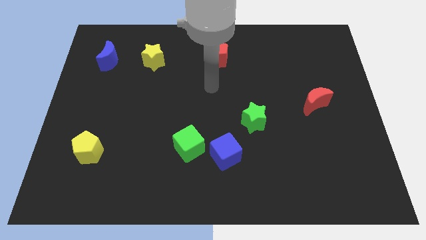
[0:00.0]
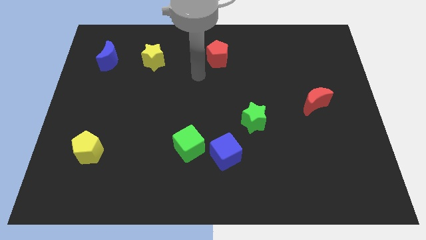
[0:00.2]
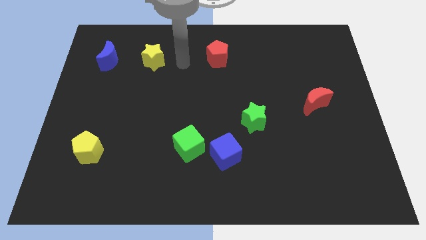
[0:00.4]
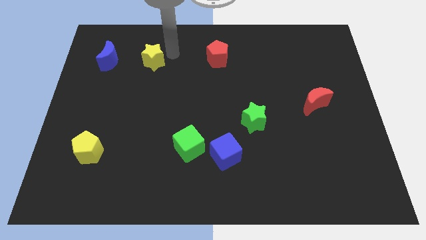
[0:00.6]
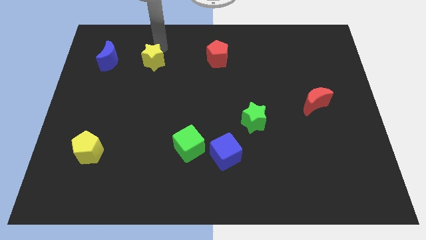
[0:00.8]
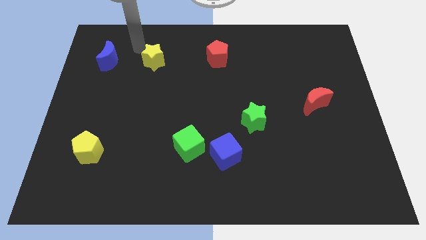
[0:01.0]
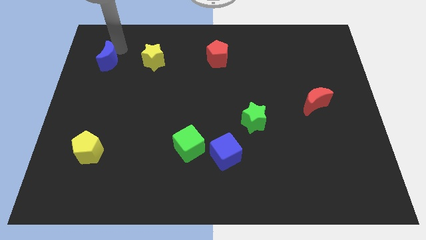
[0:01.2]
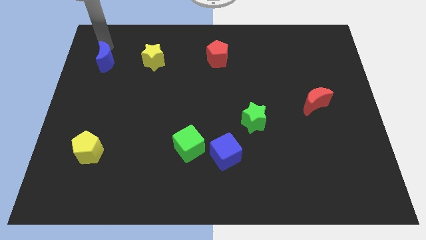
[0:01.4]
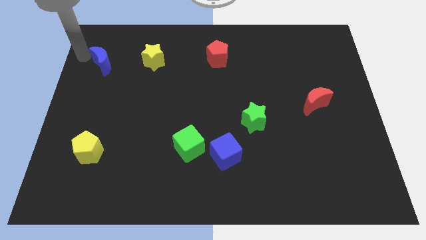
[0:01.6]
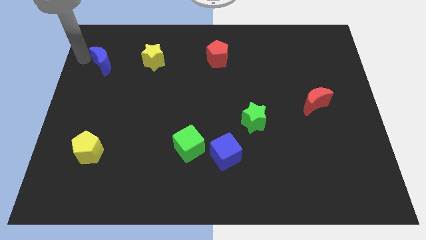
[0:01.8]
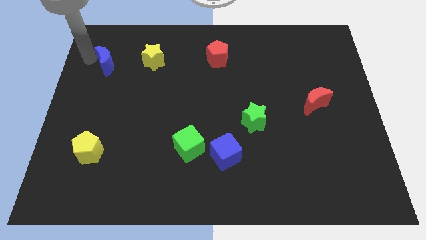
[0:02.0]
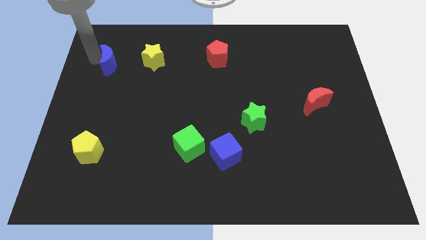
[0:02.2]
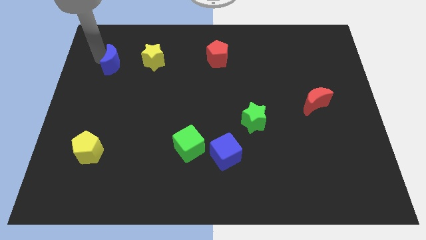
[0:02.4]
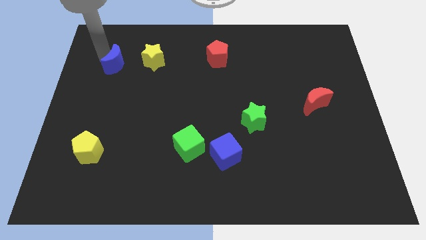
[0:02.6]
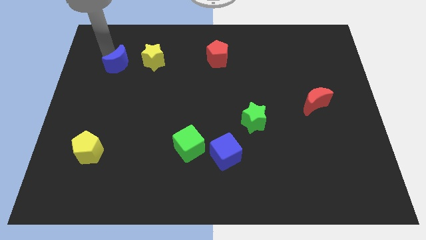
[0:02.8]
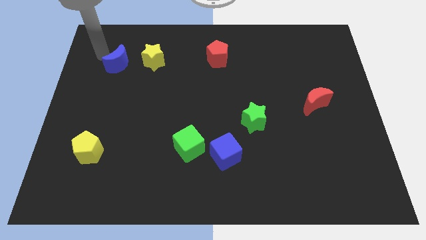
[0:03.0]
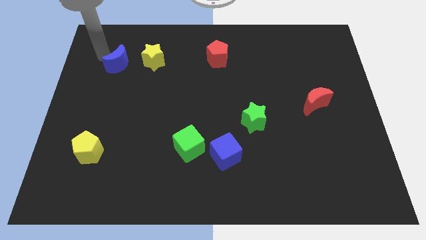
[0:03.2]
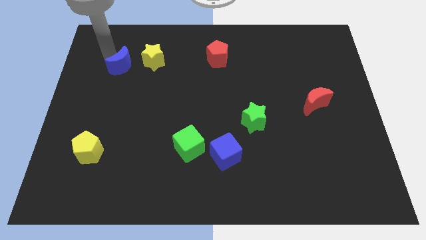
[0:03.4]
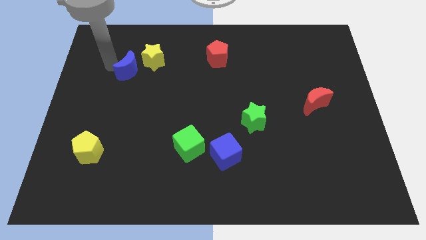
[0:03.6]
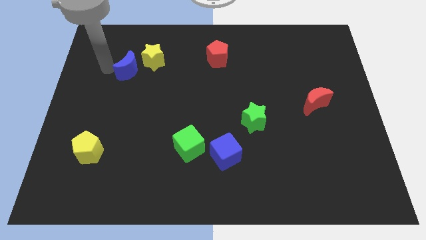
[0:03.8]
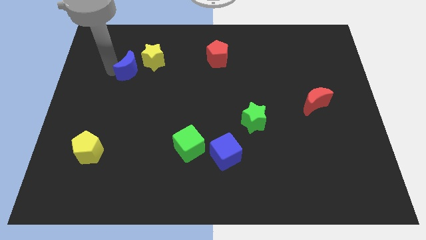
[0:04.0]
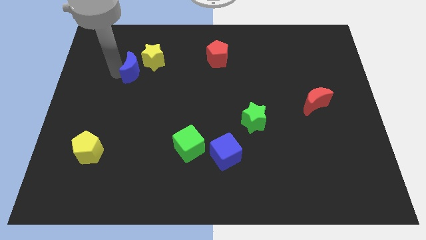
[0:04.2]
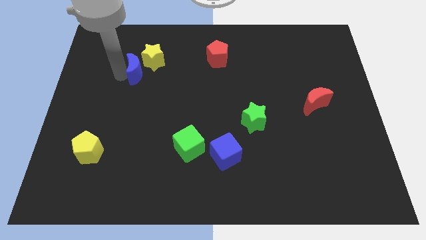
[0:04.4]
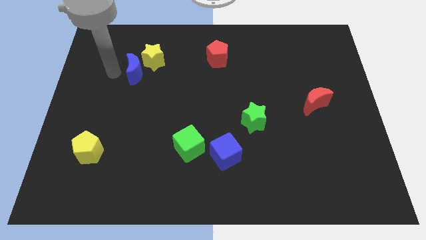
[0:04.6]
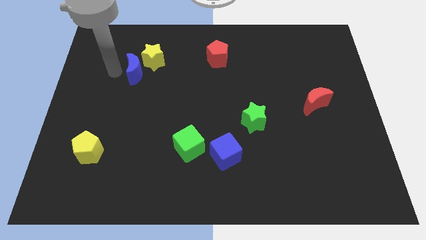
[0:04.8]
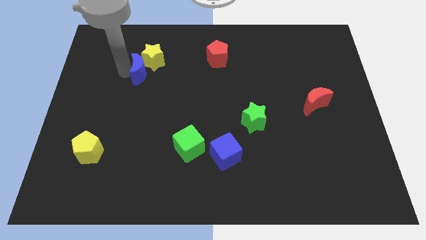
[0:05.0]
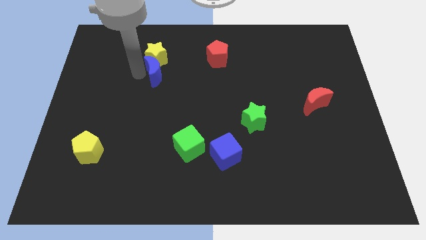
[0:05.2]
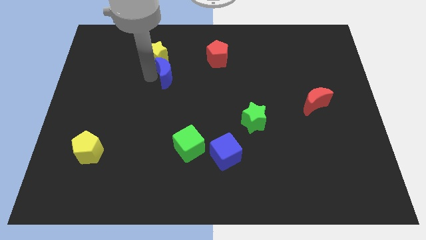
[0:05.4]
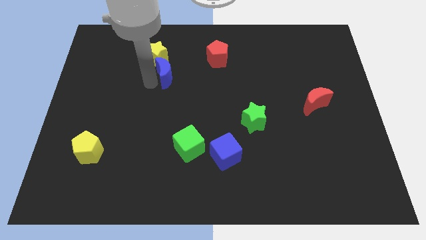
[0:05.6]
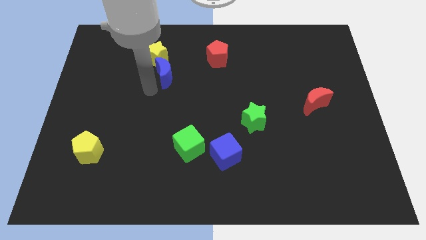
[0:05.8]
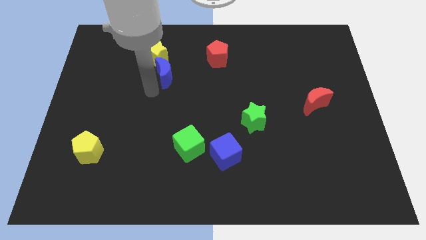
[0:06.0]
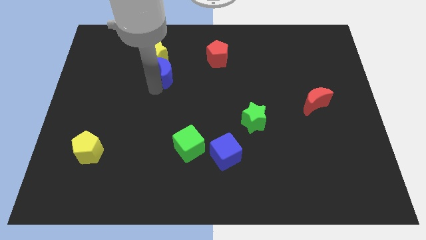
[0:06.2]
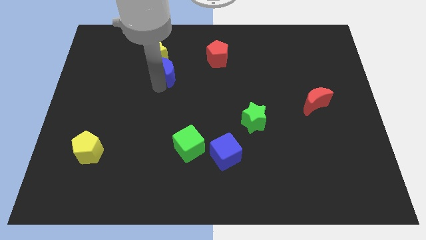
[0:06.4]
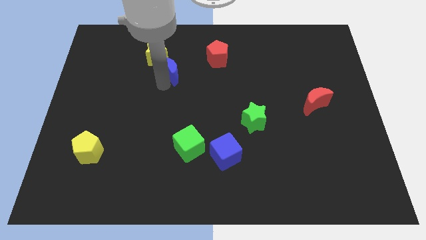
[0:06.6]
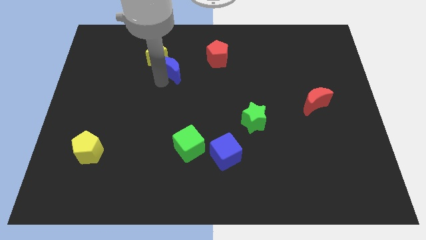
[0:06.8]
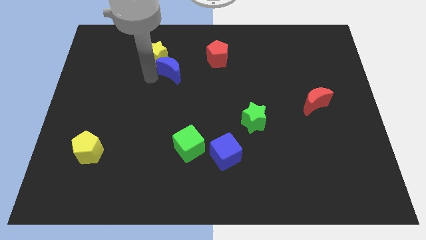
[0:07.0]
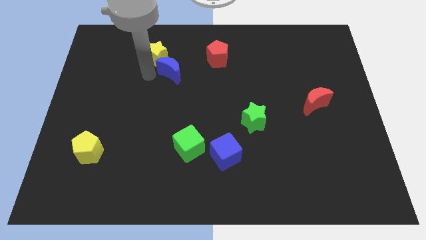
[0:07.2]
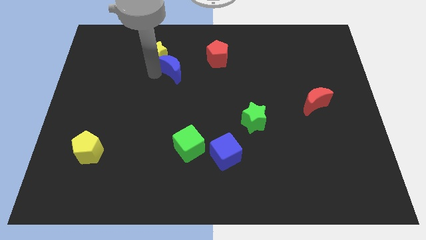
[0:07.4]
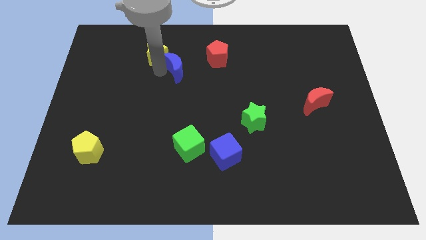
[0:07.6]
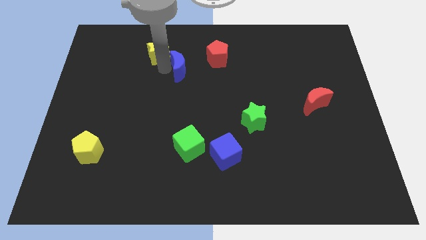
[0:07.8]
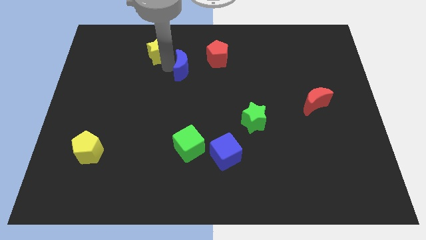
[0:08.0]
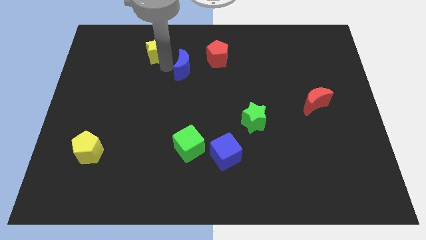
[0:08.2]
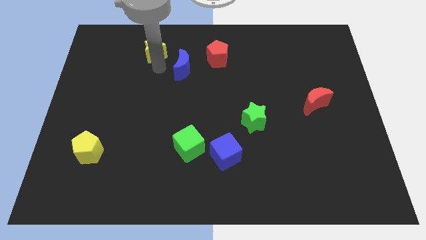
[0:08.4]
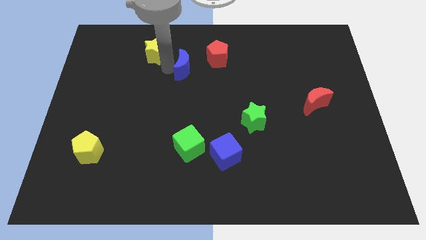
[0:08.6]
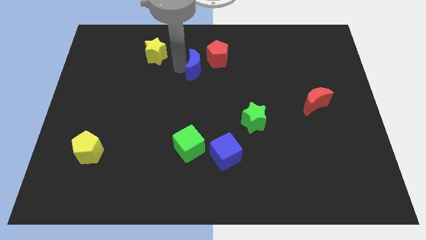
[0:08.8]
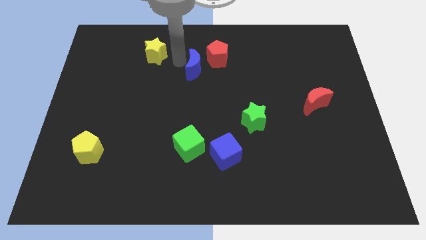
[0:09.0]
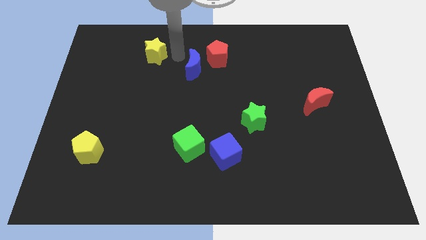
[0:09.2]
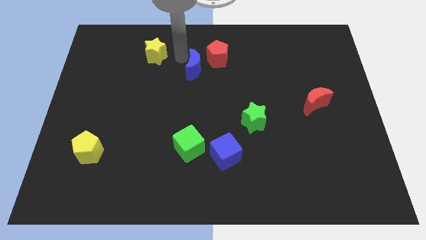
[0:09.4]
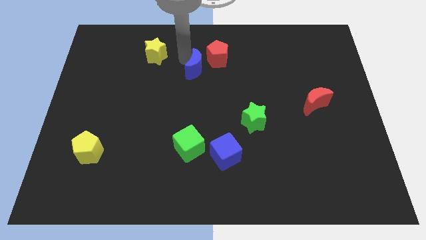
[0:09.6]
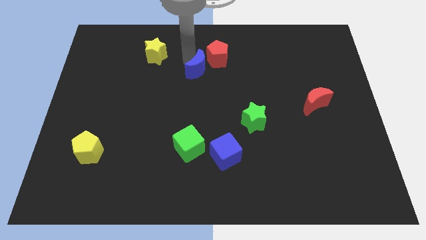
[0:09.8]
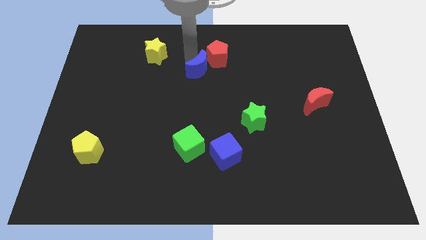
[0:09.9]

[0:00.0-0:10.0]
put the blue moon below the red pentagon

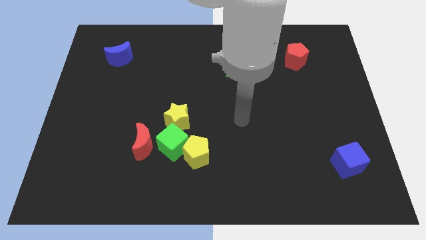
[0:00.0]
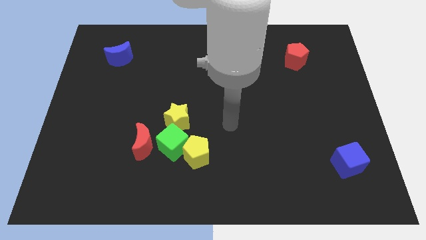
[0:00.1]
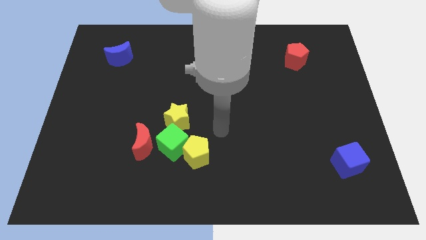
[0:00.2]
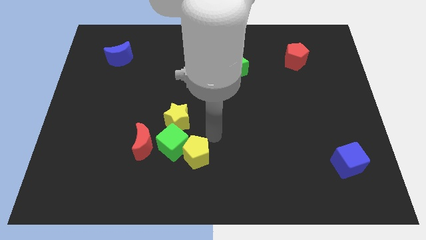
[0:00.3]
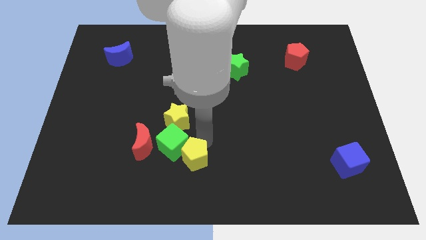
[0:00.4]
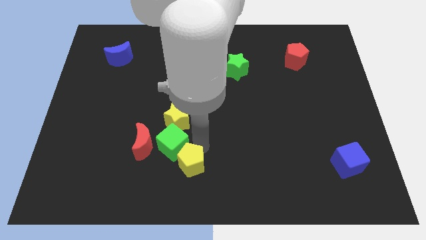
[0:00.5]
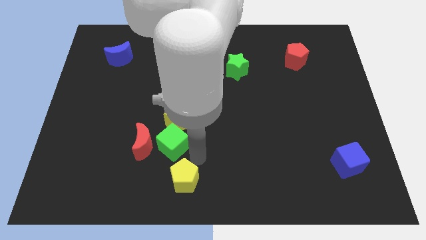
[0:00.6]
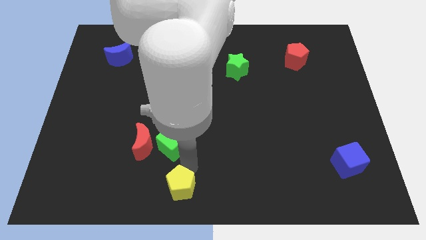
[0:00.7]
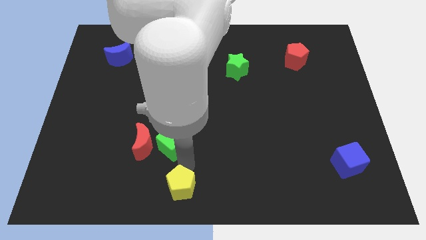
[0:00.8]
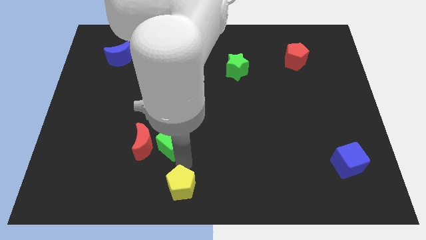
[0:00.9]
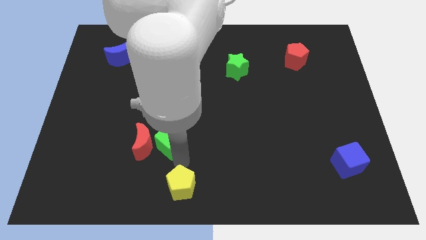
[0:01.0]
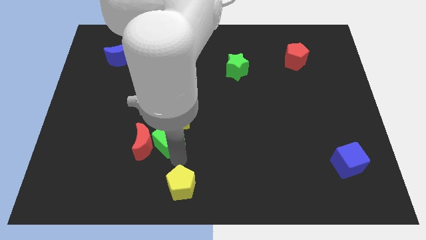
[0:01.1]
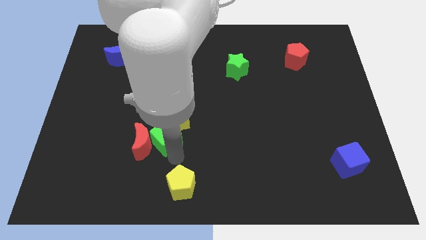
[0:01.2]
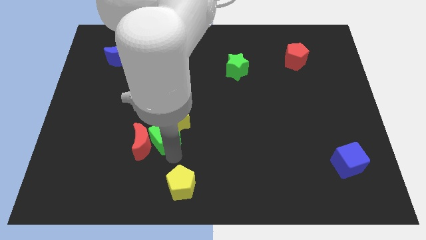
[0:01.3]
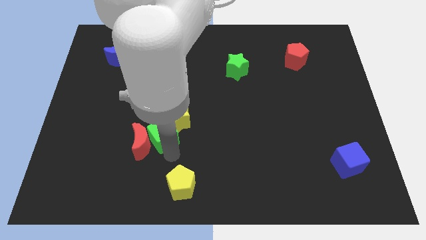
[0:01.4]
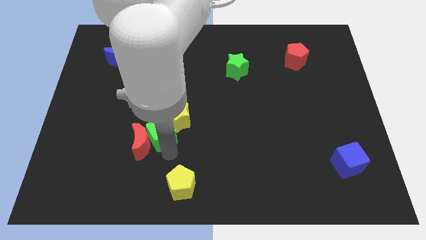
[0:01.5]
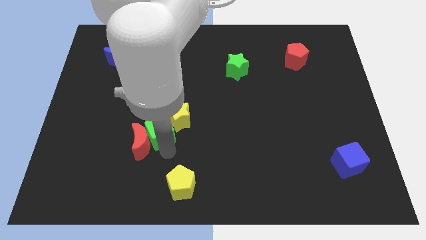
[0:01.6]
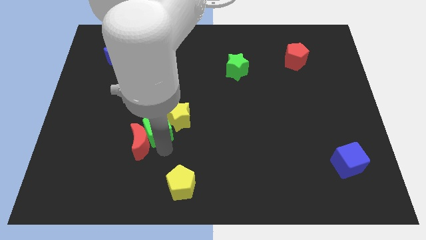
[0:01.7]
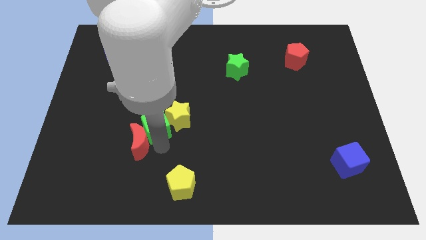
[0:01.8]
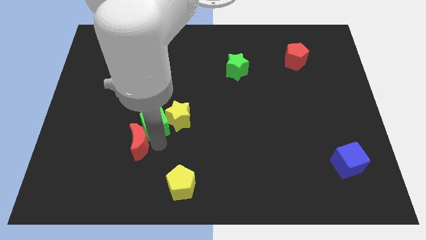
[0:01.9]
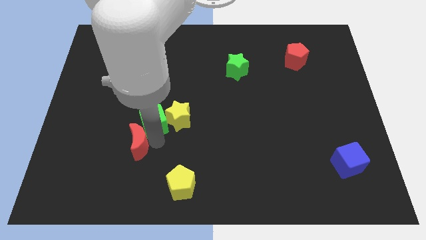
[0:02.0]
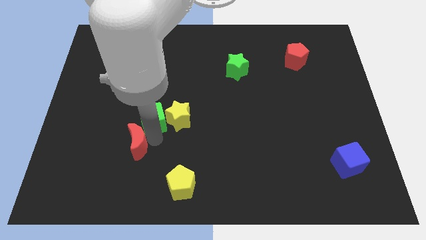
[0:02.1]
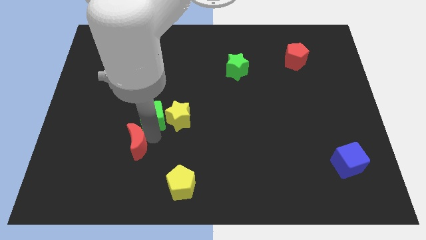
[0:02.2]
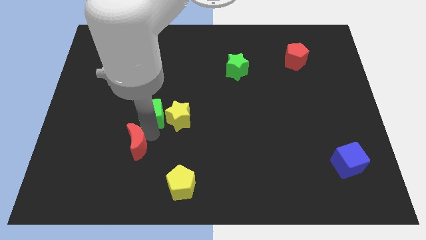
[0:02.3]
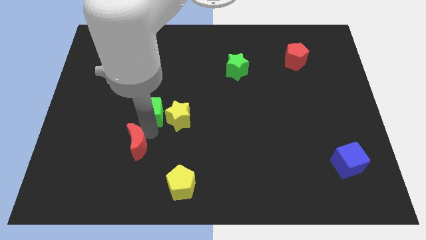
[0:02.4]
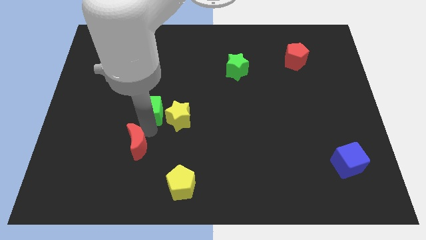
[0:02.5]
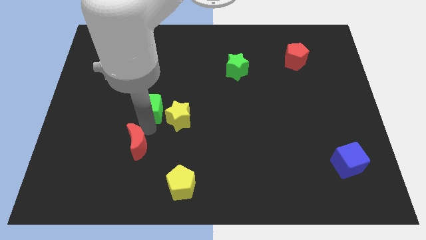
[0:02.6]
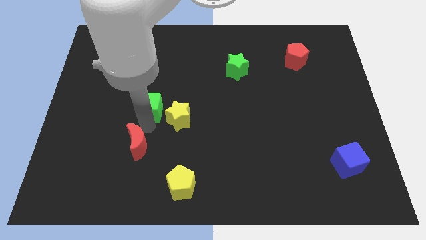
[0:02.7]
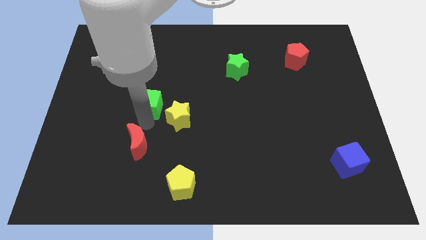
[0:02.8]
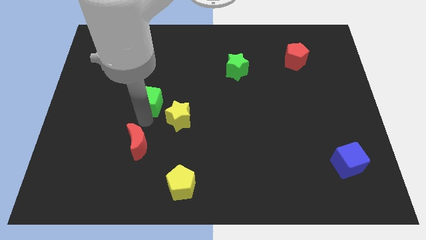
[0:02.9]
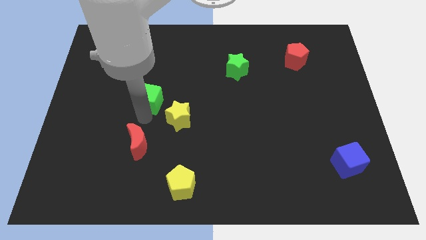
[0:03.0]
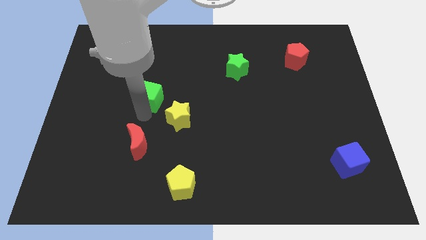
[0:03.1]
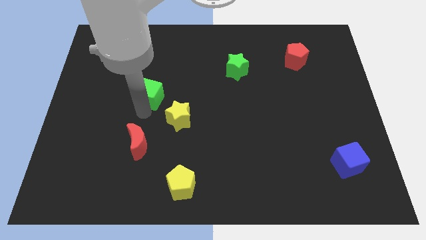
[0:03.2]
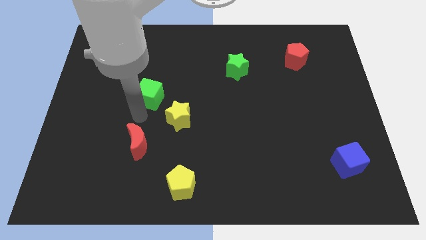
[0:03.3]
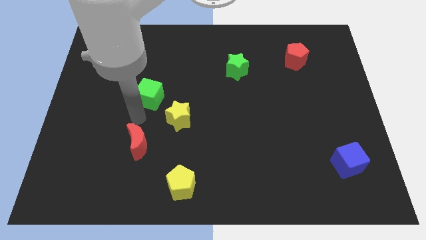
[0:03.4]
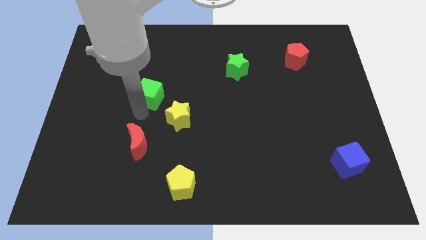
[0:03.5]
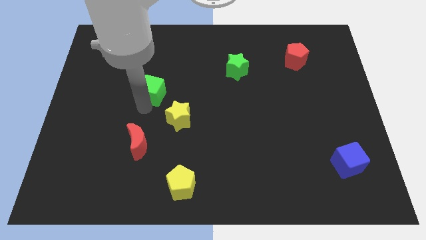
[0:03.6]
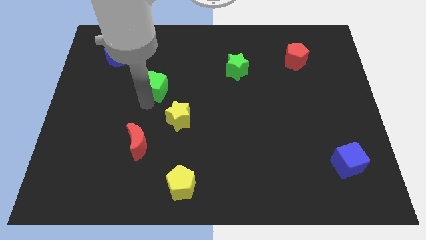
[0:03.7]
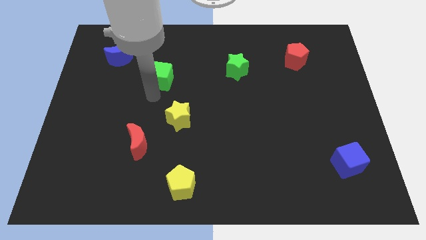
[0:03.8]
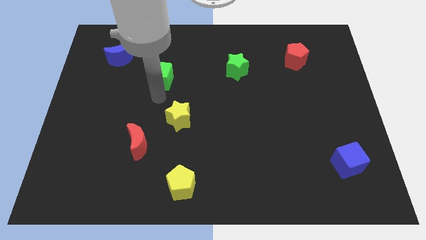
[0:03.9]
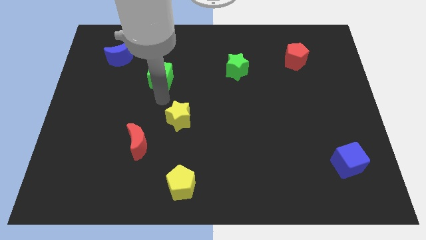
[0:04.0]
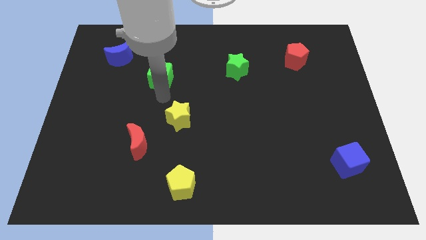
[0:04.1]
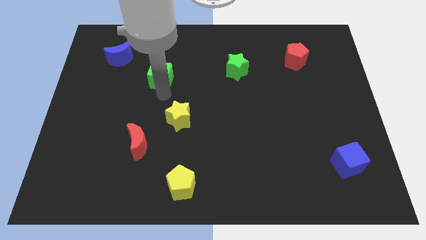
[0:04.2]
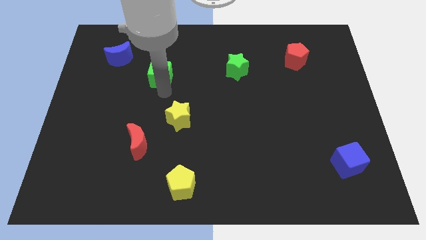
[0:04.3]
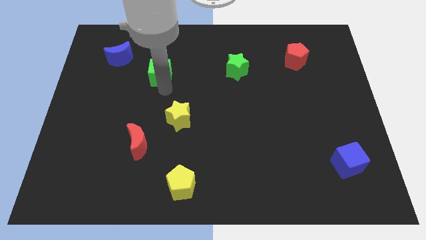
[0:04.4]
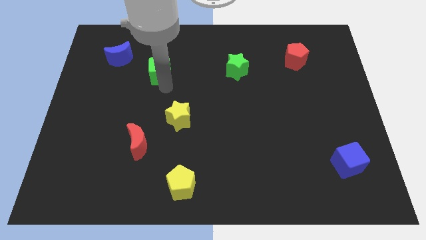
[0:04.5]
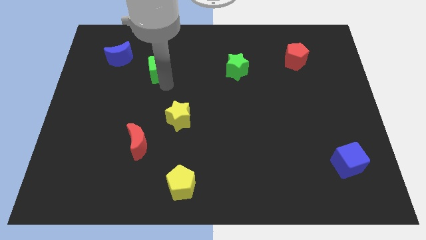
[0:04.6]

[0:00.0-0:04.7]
put the green cube just right of the blue moon
